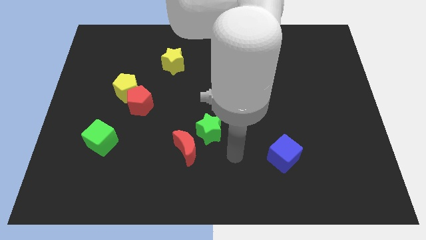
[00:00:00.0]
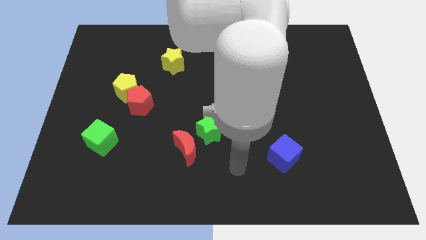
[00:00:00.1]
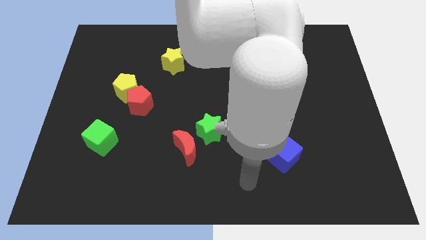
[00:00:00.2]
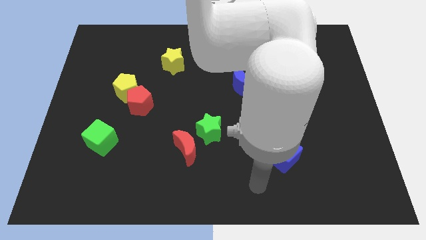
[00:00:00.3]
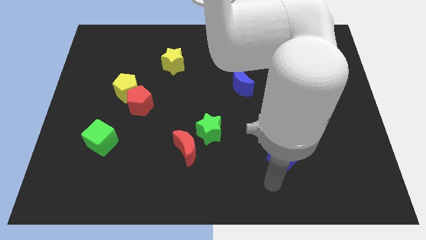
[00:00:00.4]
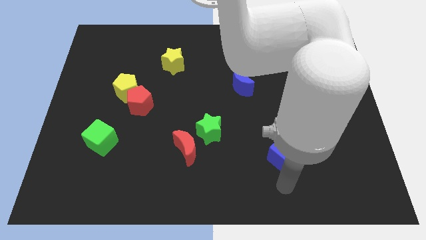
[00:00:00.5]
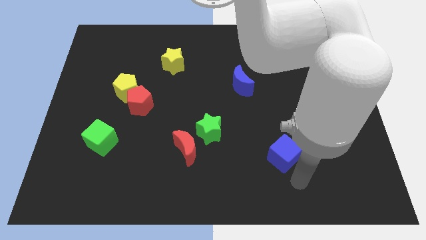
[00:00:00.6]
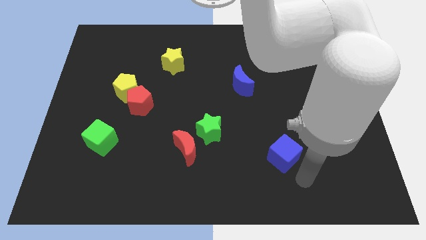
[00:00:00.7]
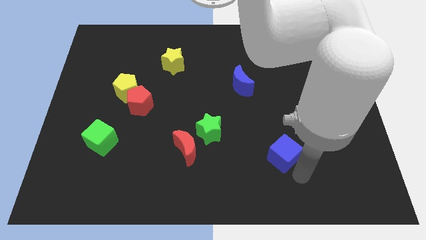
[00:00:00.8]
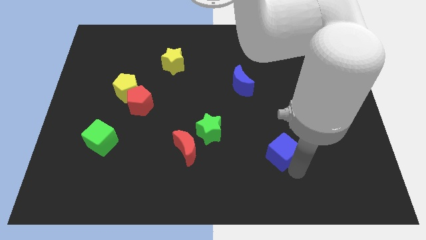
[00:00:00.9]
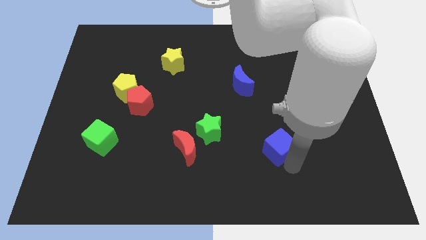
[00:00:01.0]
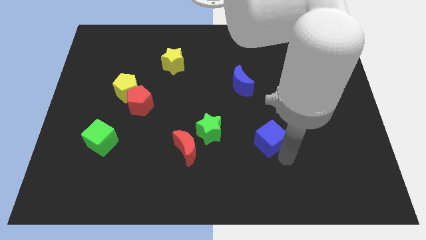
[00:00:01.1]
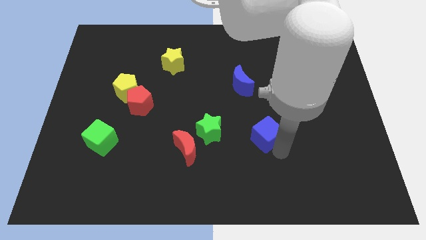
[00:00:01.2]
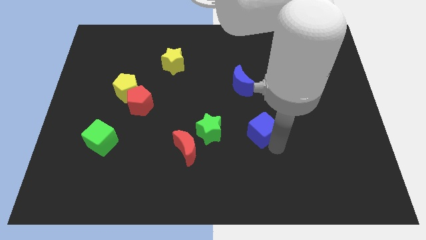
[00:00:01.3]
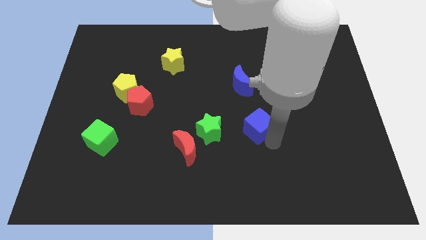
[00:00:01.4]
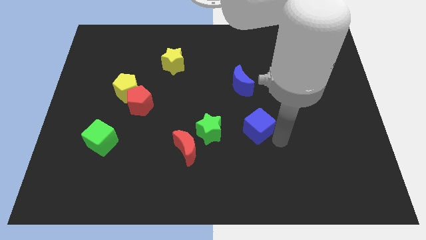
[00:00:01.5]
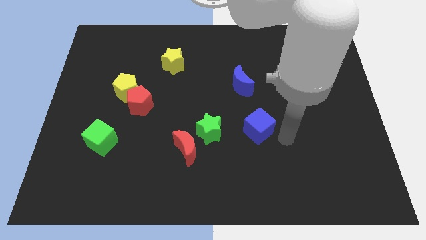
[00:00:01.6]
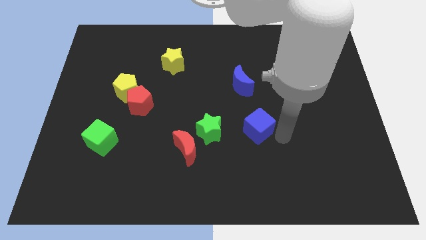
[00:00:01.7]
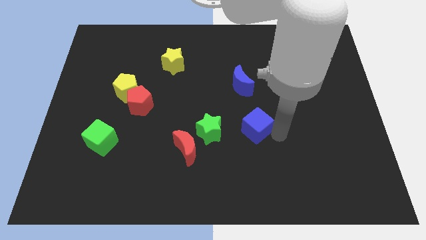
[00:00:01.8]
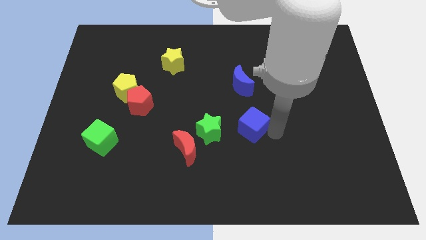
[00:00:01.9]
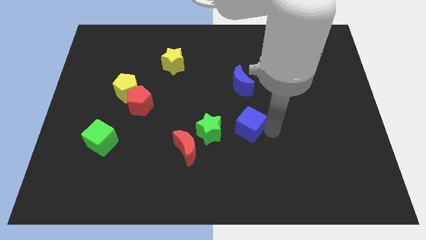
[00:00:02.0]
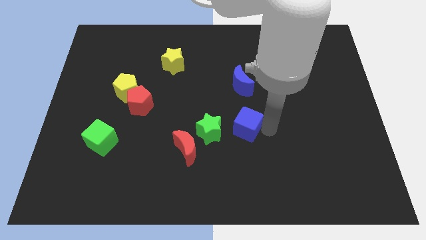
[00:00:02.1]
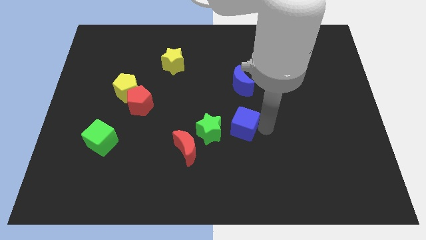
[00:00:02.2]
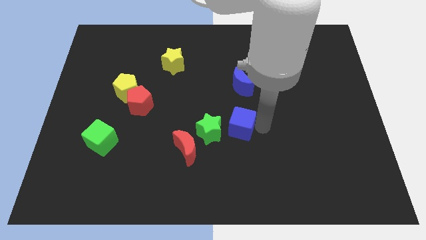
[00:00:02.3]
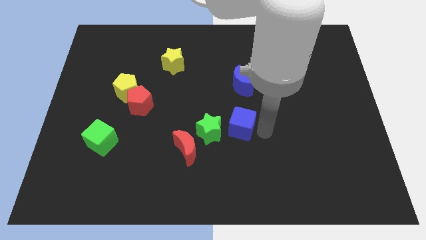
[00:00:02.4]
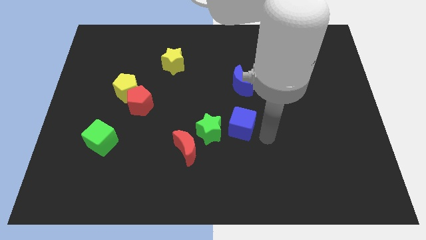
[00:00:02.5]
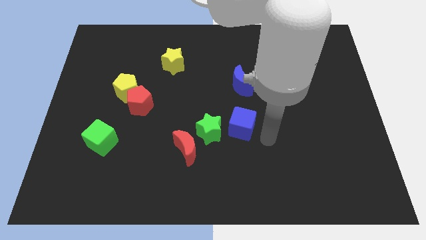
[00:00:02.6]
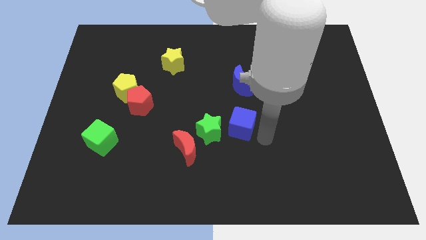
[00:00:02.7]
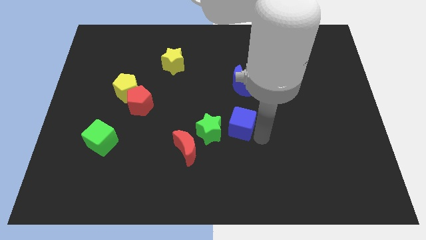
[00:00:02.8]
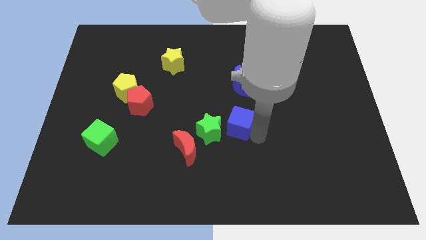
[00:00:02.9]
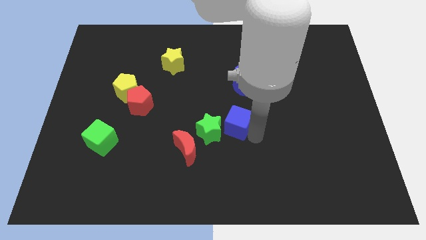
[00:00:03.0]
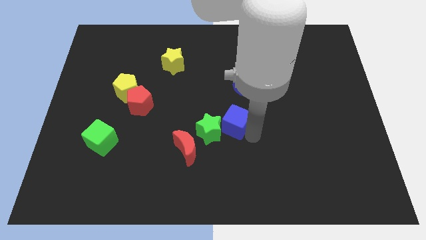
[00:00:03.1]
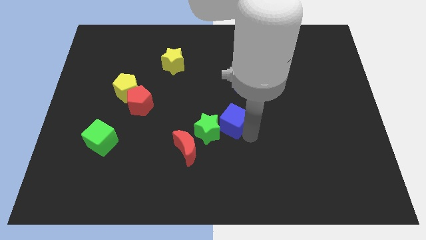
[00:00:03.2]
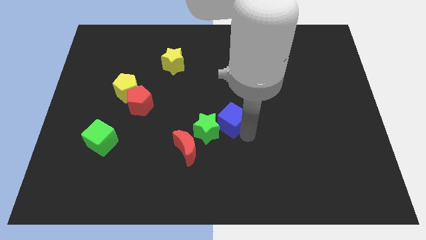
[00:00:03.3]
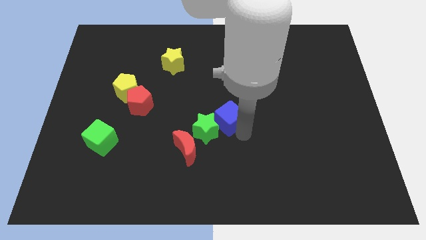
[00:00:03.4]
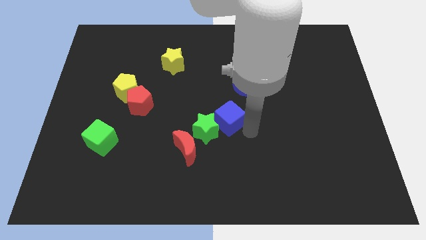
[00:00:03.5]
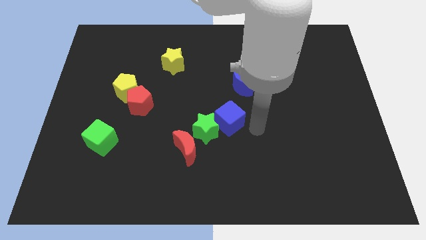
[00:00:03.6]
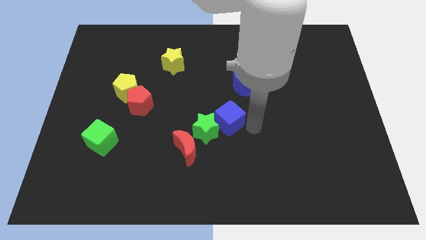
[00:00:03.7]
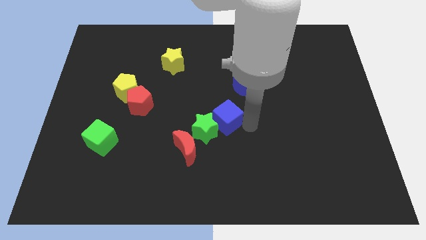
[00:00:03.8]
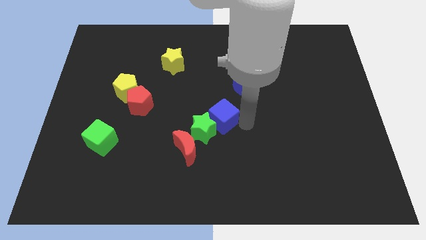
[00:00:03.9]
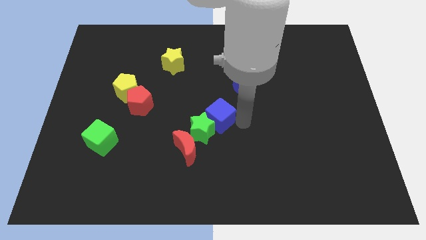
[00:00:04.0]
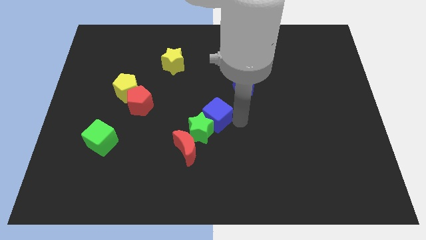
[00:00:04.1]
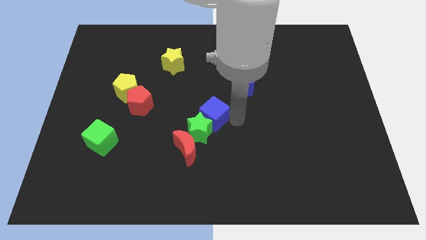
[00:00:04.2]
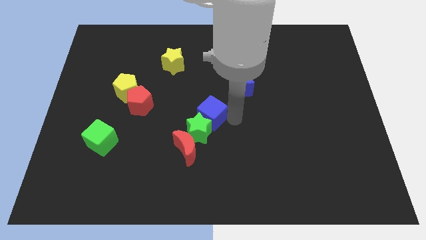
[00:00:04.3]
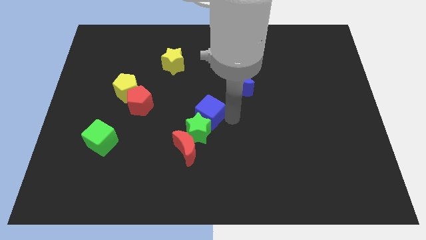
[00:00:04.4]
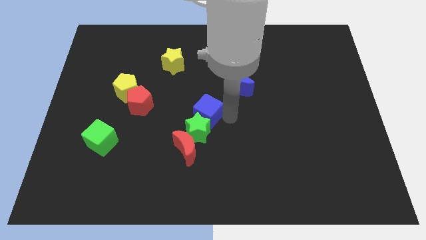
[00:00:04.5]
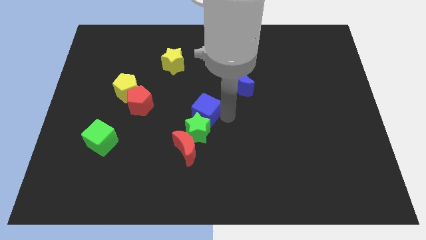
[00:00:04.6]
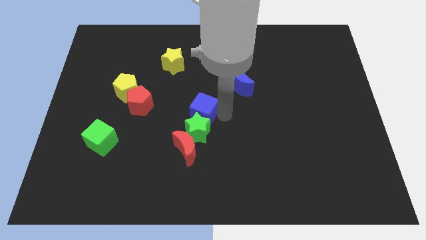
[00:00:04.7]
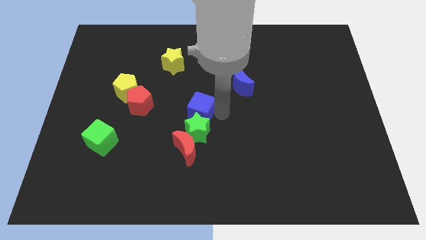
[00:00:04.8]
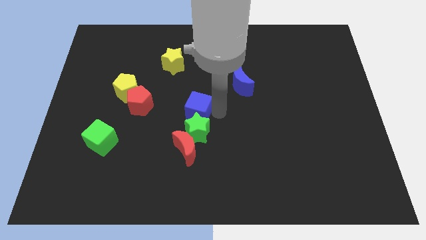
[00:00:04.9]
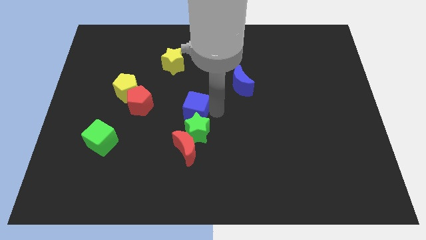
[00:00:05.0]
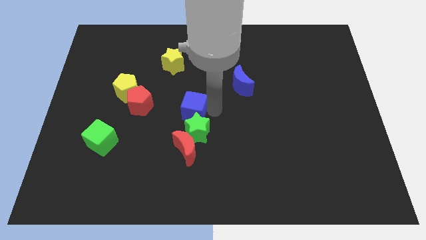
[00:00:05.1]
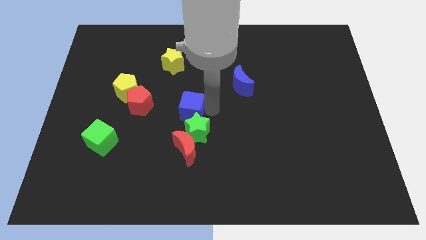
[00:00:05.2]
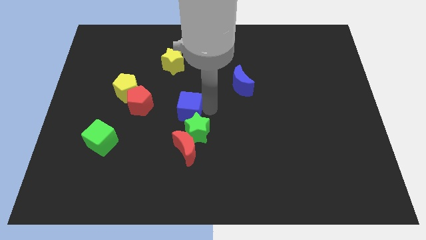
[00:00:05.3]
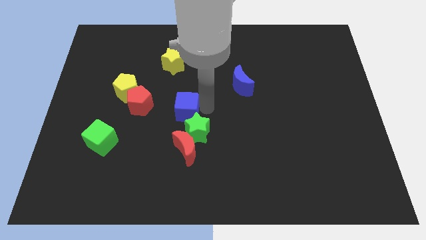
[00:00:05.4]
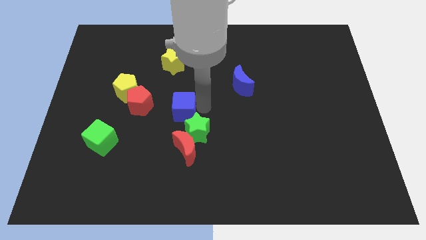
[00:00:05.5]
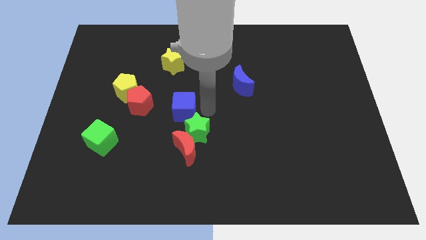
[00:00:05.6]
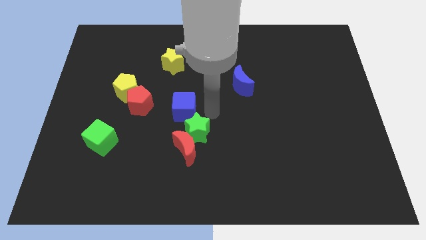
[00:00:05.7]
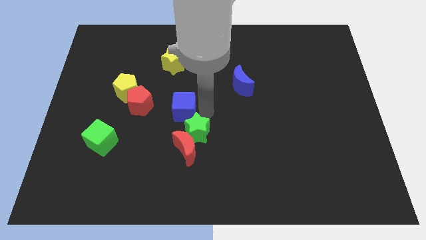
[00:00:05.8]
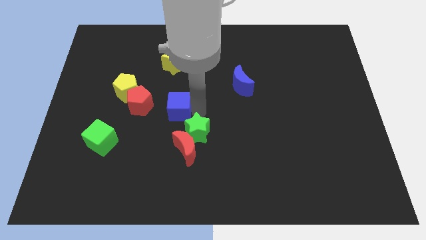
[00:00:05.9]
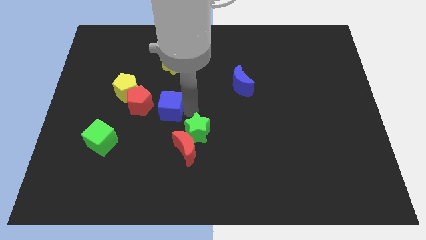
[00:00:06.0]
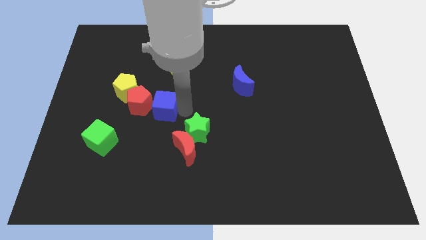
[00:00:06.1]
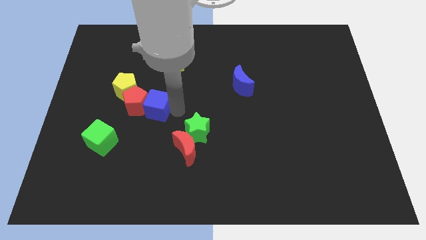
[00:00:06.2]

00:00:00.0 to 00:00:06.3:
slide the blue cube to the red pentagon
